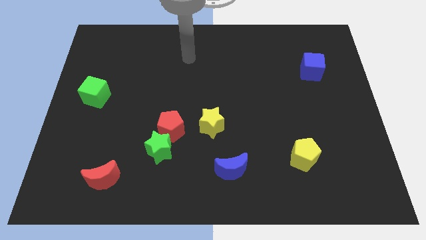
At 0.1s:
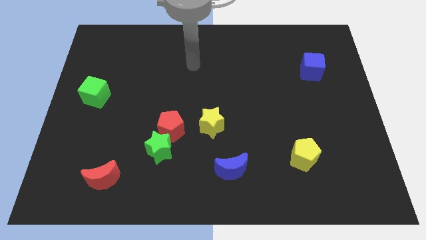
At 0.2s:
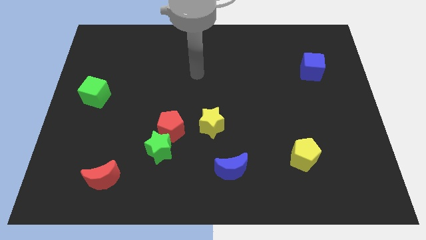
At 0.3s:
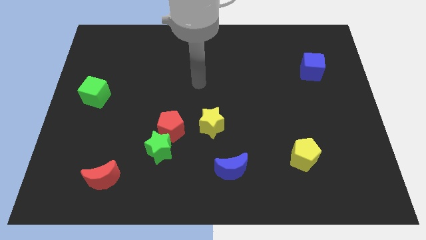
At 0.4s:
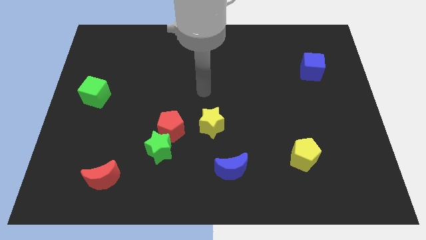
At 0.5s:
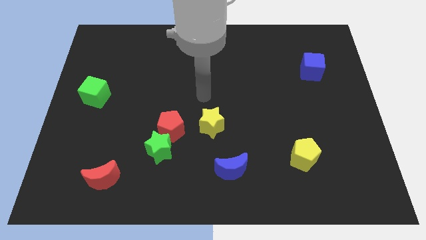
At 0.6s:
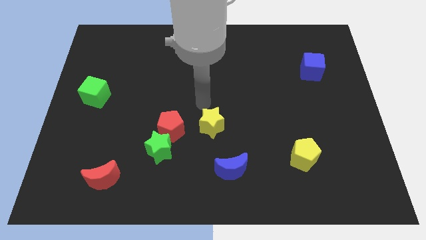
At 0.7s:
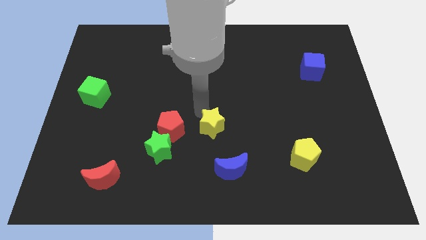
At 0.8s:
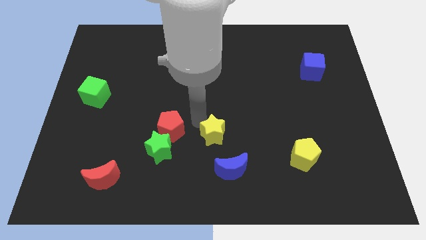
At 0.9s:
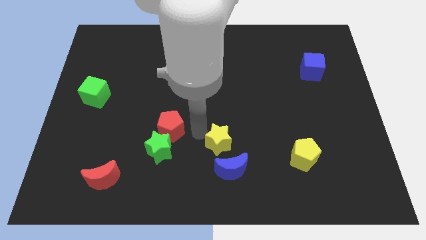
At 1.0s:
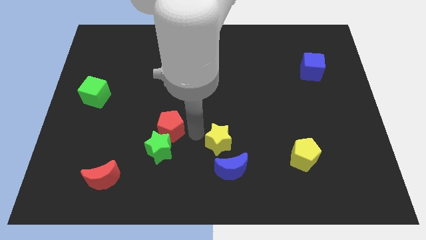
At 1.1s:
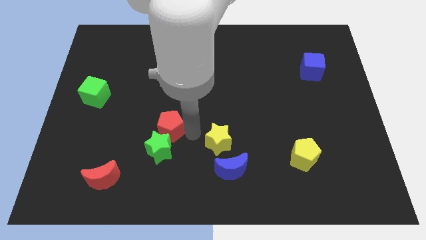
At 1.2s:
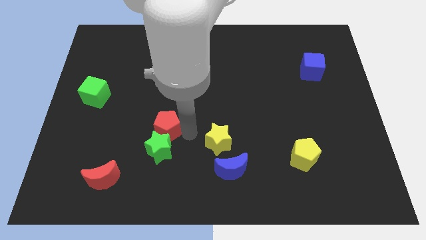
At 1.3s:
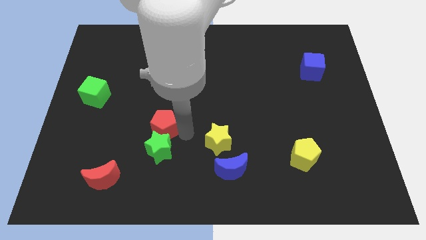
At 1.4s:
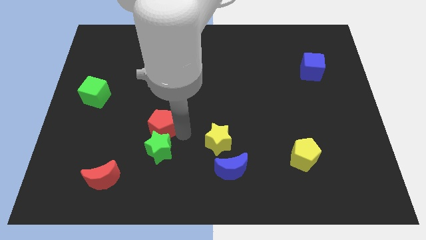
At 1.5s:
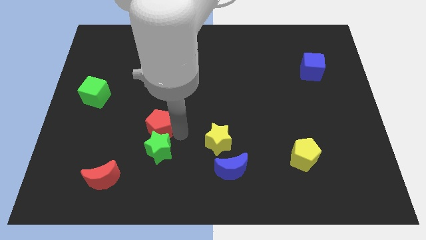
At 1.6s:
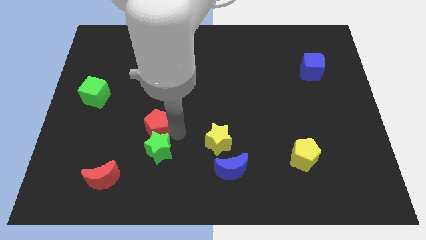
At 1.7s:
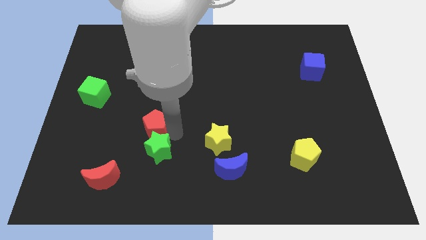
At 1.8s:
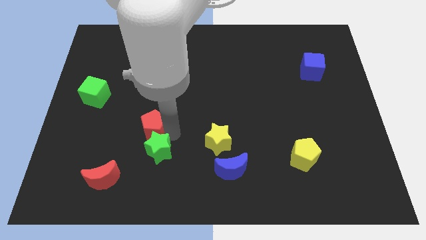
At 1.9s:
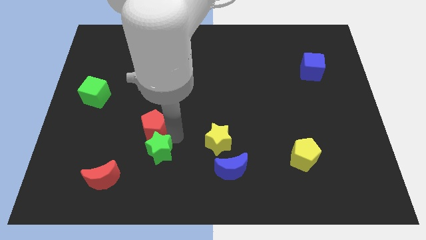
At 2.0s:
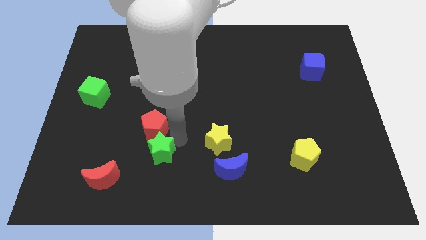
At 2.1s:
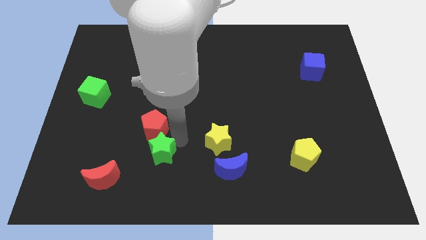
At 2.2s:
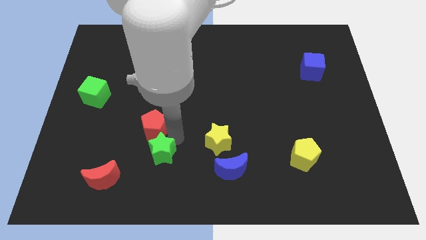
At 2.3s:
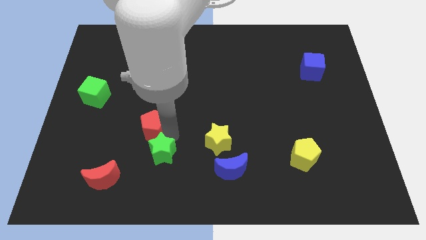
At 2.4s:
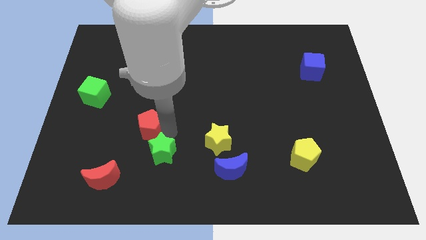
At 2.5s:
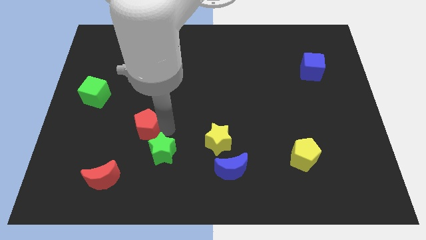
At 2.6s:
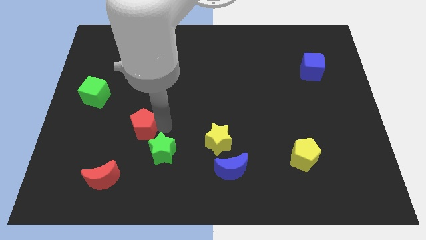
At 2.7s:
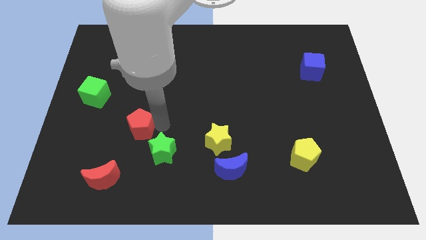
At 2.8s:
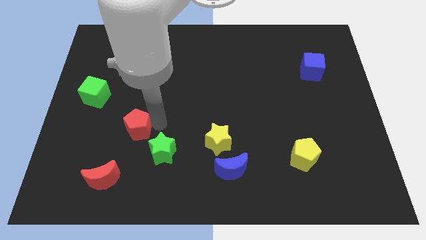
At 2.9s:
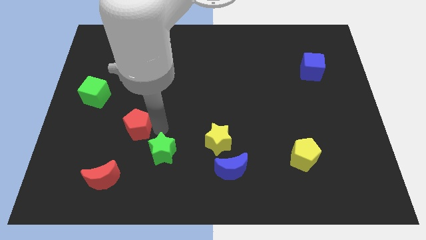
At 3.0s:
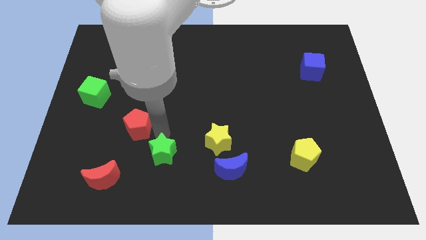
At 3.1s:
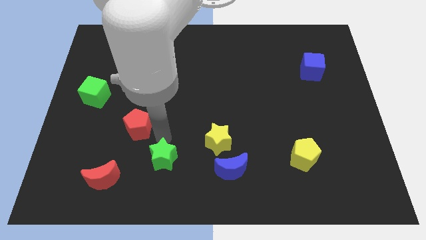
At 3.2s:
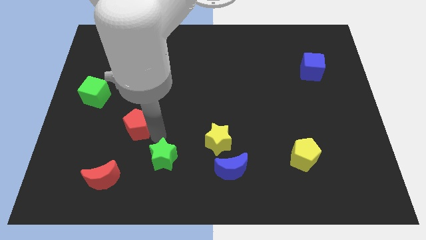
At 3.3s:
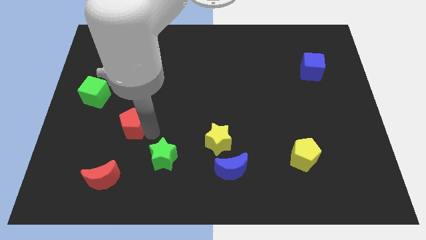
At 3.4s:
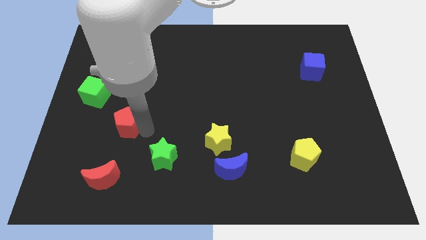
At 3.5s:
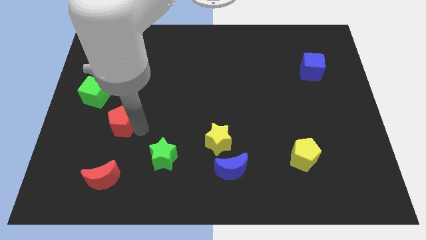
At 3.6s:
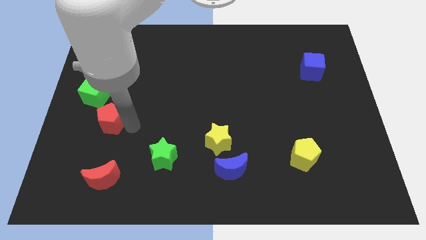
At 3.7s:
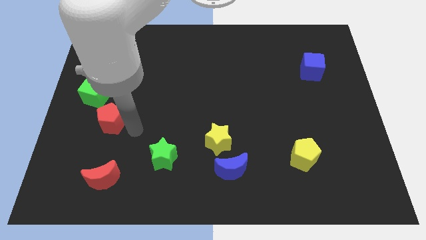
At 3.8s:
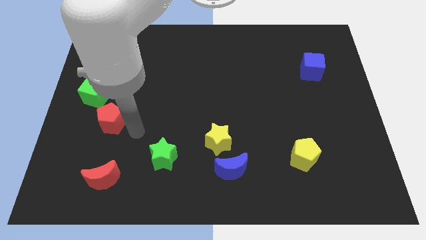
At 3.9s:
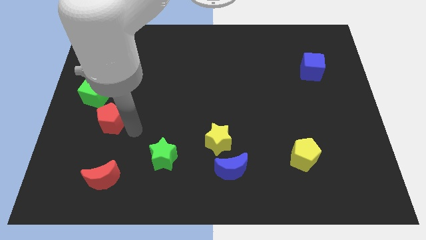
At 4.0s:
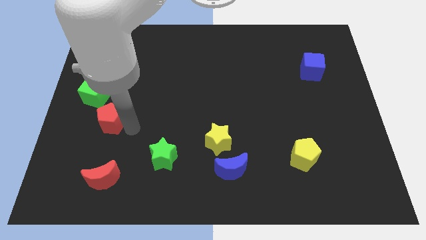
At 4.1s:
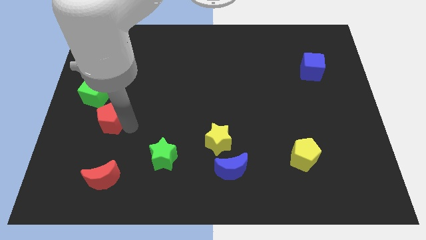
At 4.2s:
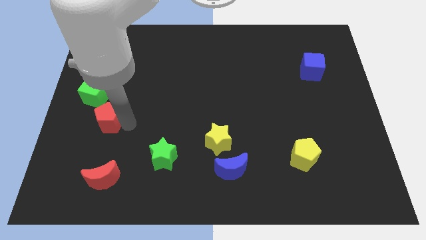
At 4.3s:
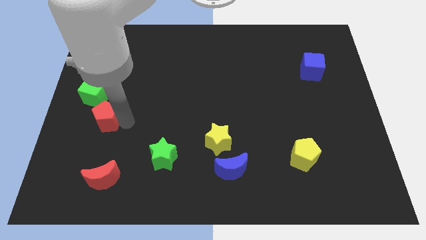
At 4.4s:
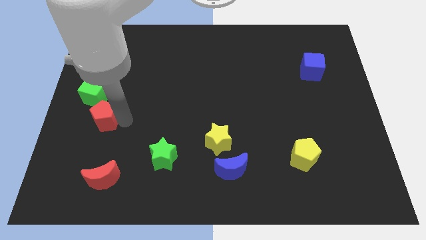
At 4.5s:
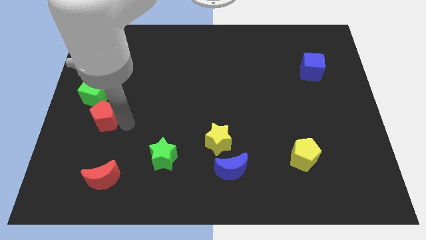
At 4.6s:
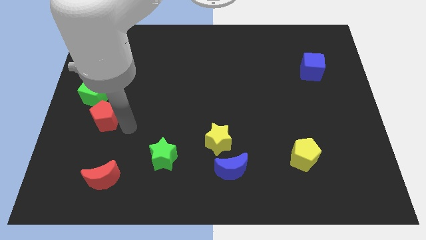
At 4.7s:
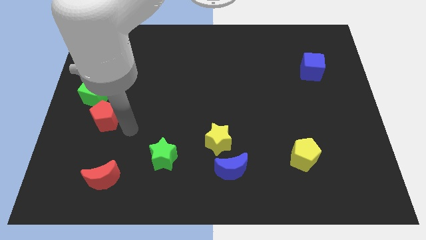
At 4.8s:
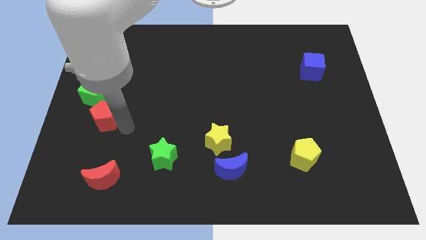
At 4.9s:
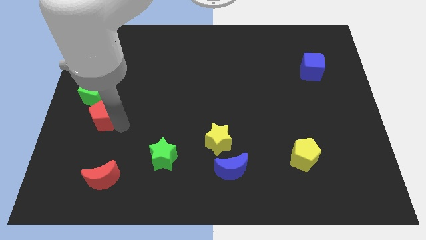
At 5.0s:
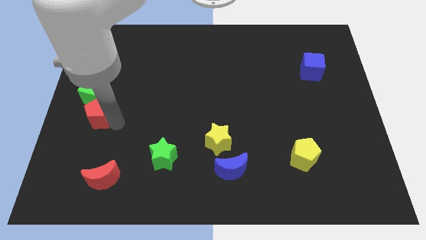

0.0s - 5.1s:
slide the red pentagon to the left side

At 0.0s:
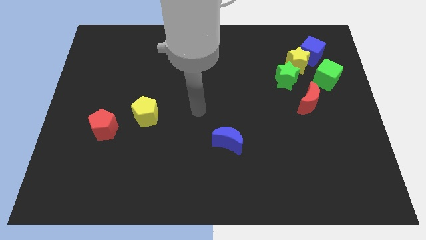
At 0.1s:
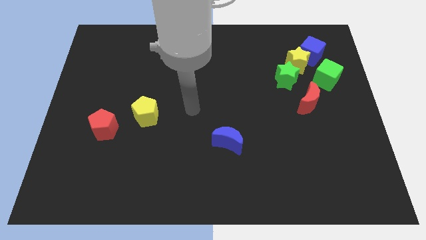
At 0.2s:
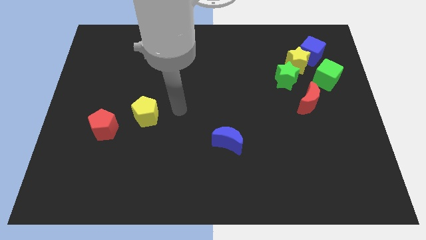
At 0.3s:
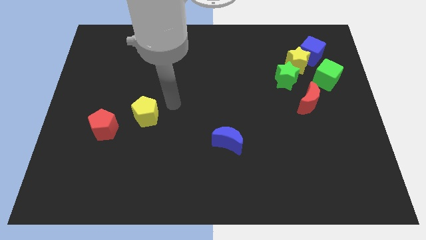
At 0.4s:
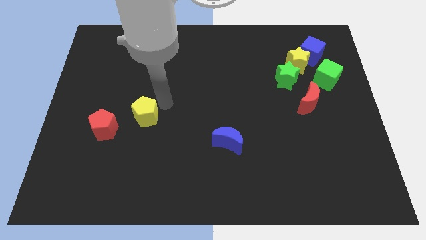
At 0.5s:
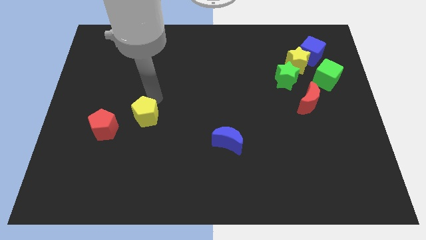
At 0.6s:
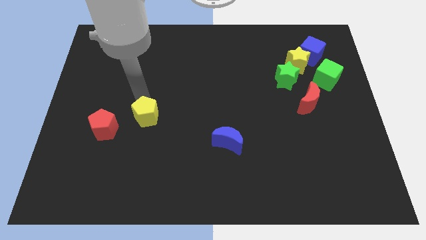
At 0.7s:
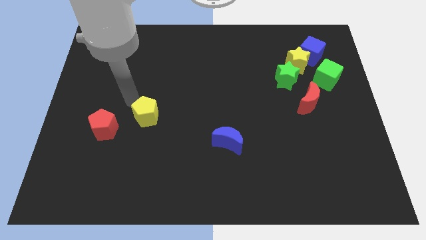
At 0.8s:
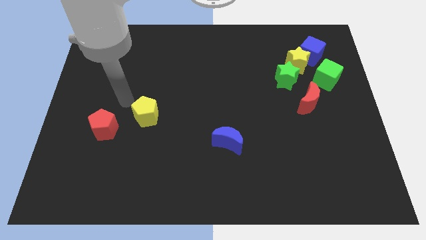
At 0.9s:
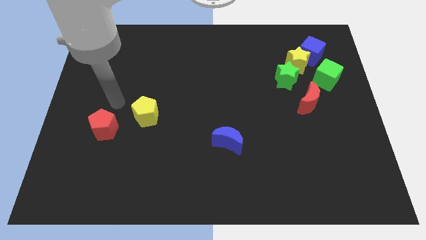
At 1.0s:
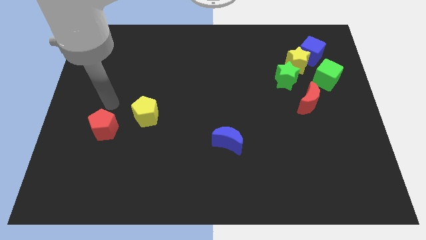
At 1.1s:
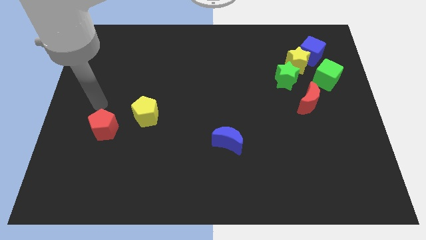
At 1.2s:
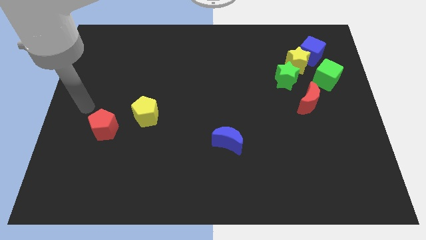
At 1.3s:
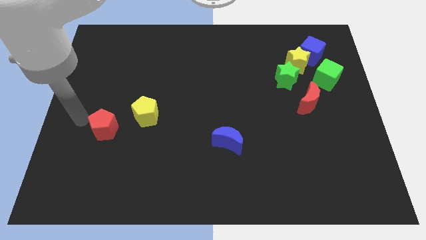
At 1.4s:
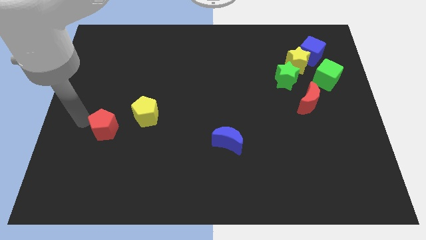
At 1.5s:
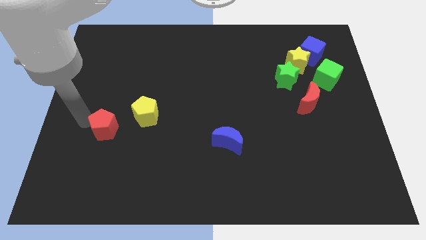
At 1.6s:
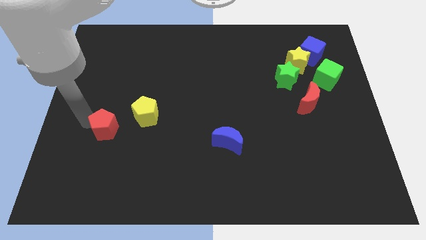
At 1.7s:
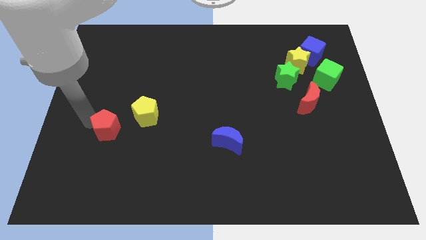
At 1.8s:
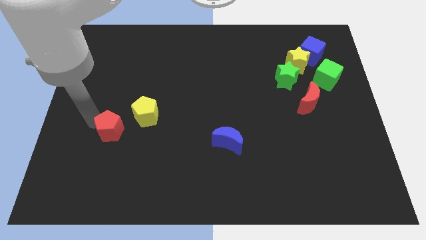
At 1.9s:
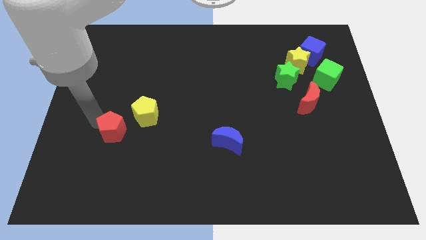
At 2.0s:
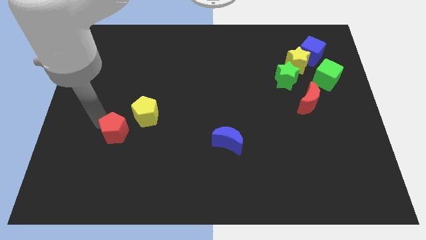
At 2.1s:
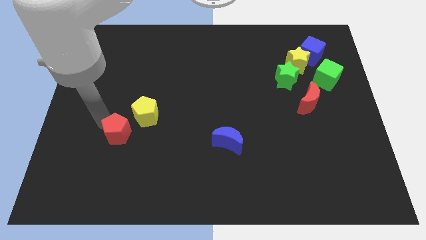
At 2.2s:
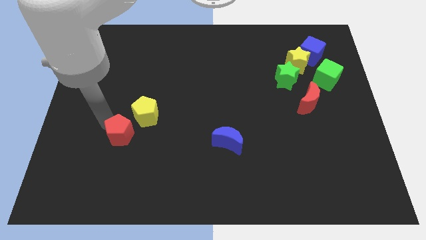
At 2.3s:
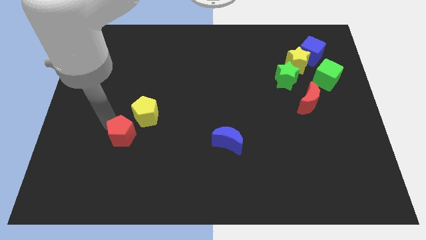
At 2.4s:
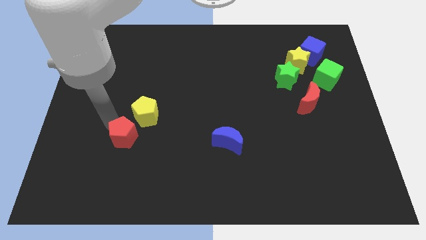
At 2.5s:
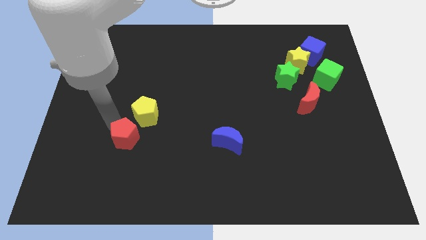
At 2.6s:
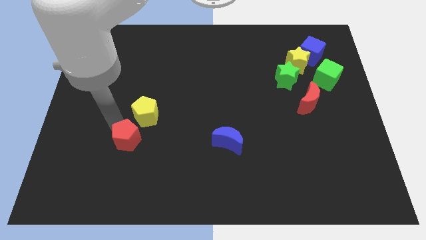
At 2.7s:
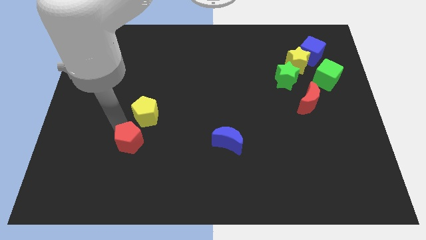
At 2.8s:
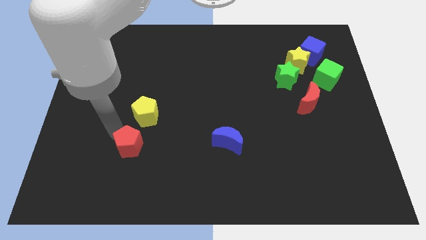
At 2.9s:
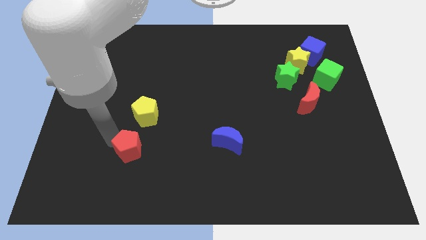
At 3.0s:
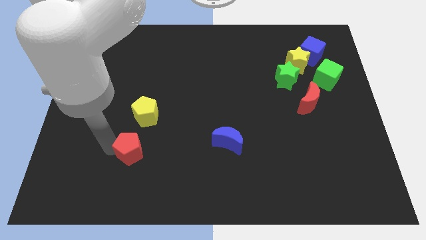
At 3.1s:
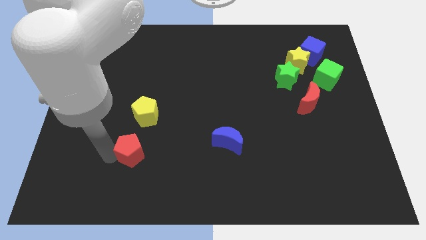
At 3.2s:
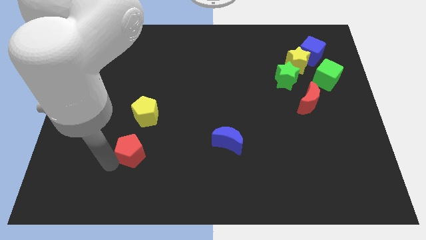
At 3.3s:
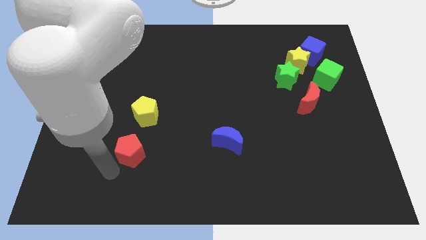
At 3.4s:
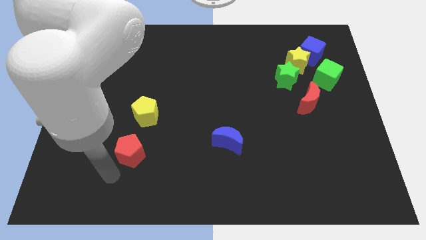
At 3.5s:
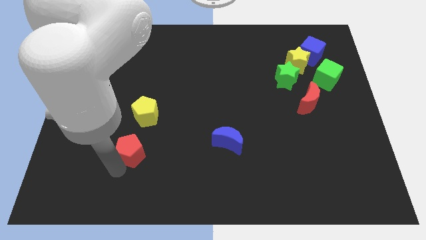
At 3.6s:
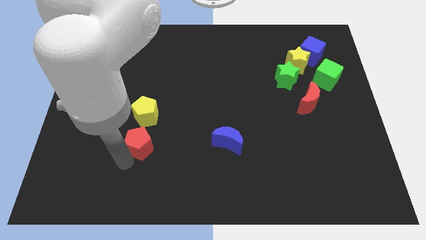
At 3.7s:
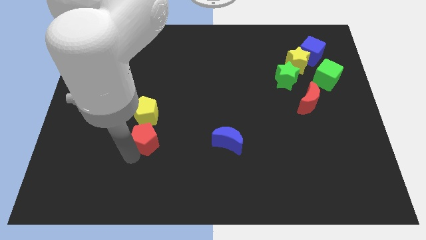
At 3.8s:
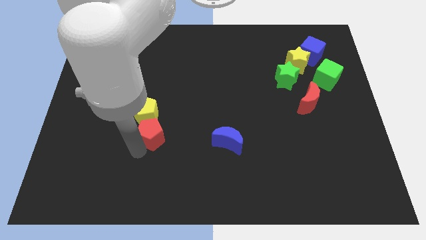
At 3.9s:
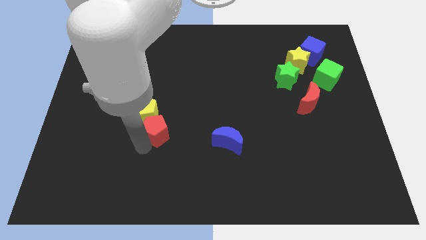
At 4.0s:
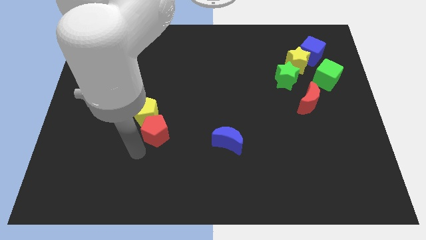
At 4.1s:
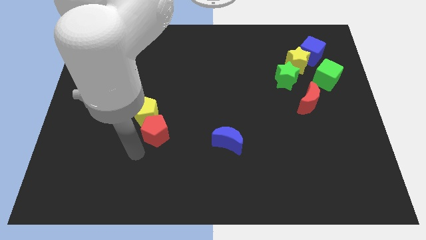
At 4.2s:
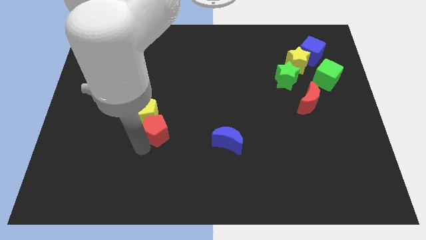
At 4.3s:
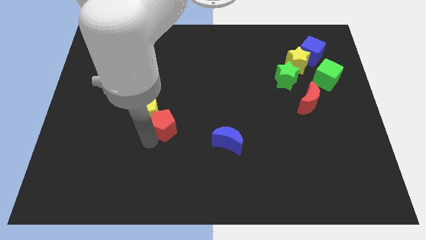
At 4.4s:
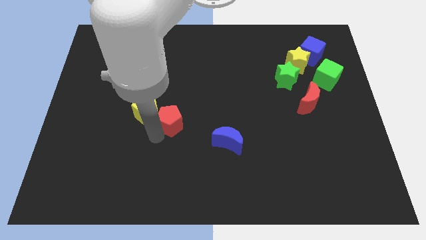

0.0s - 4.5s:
slide the red pentagon to the center of the board
